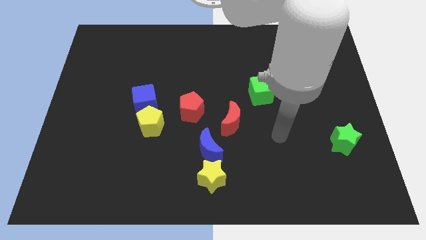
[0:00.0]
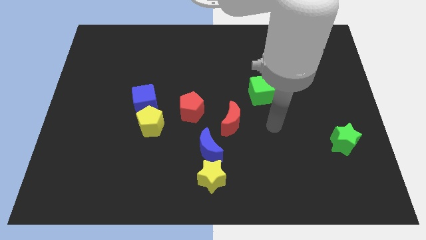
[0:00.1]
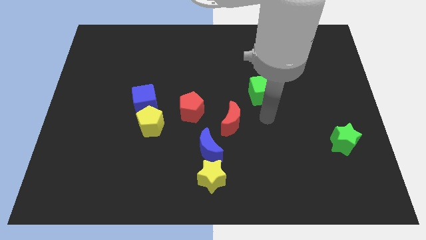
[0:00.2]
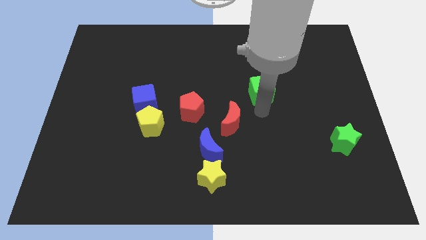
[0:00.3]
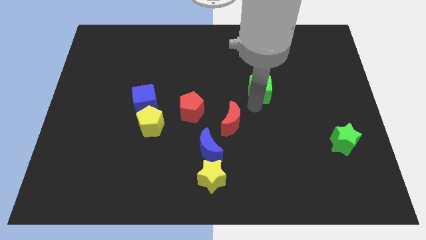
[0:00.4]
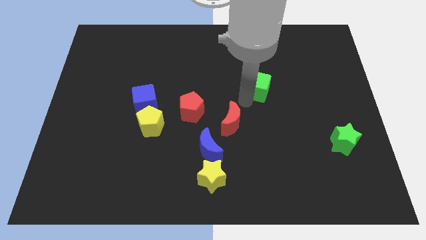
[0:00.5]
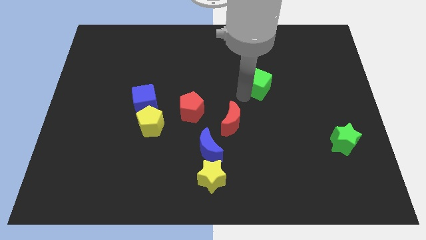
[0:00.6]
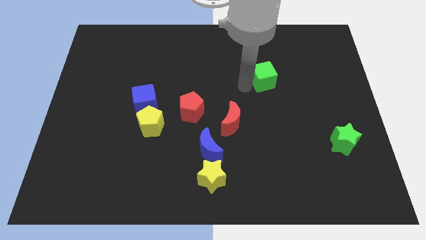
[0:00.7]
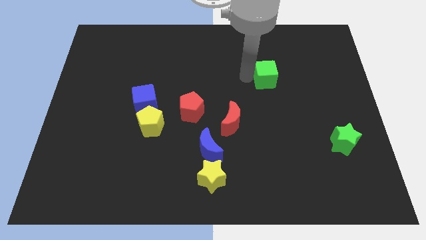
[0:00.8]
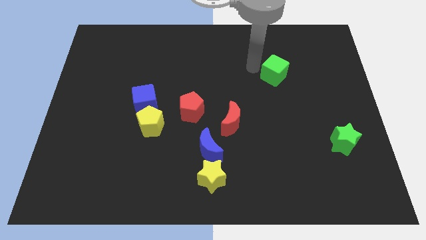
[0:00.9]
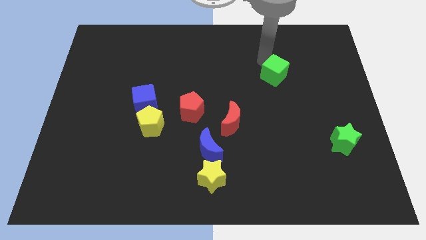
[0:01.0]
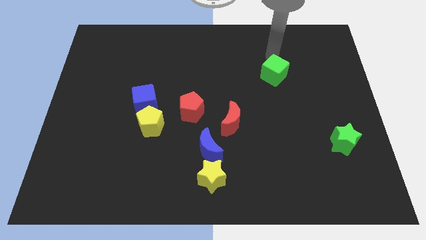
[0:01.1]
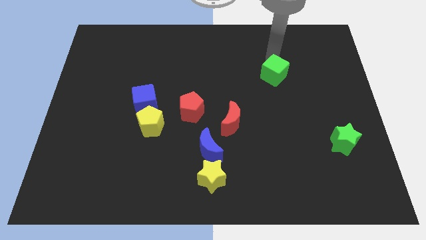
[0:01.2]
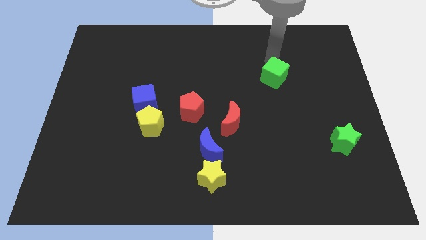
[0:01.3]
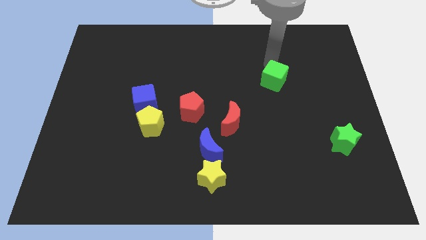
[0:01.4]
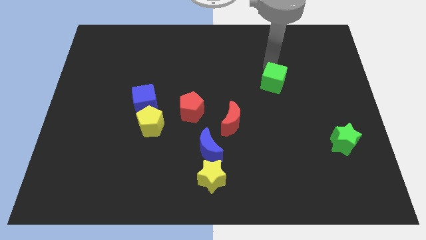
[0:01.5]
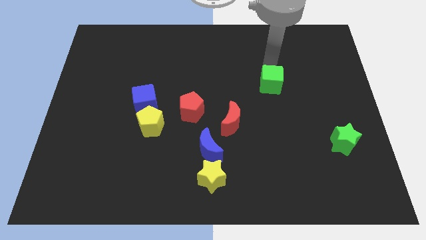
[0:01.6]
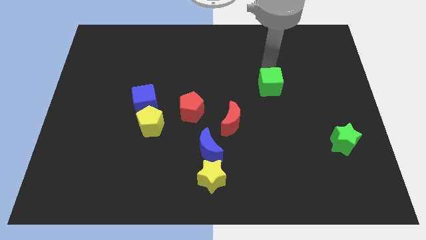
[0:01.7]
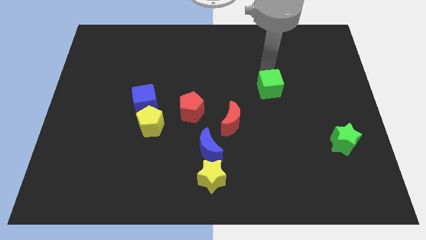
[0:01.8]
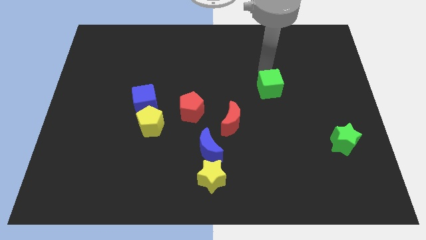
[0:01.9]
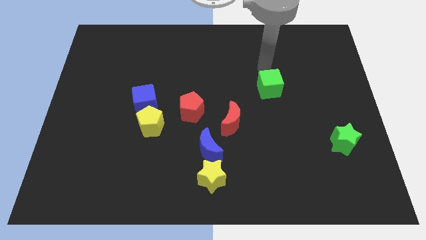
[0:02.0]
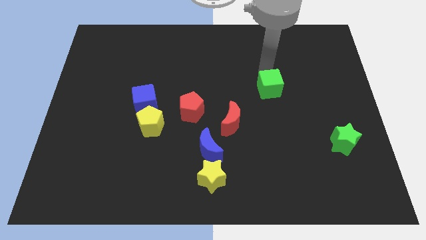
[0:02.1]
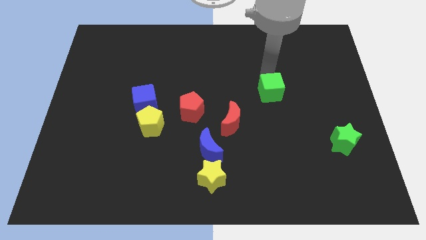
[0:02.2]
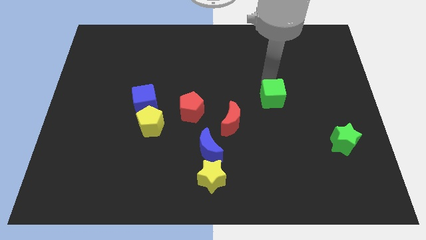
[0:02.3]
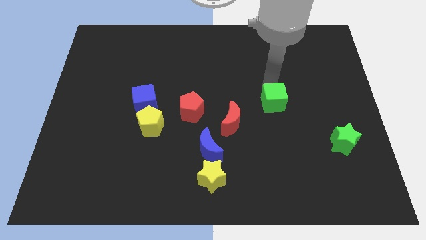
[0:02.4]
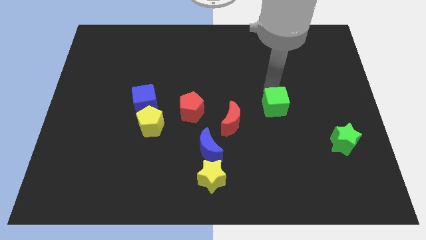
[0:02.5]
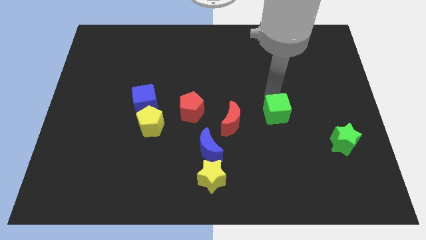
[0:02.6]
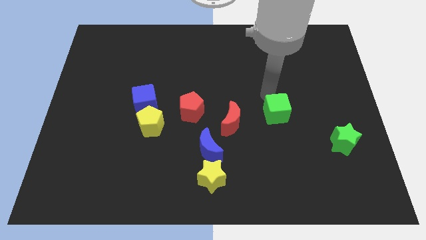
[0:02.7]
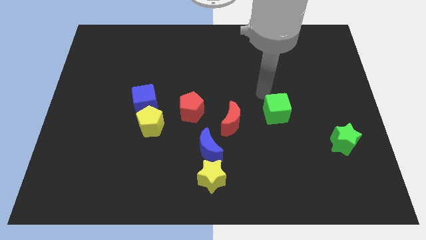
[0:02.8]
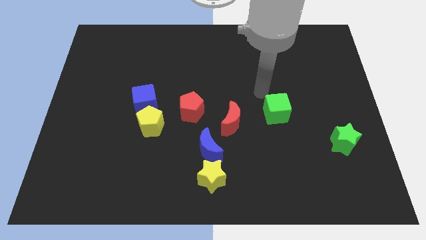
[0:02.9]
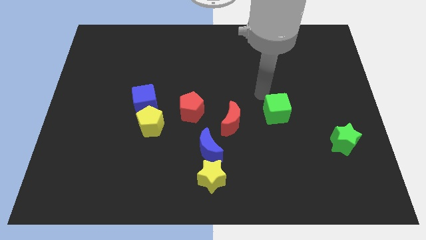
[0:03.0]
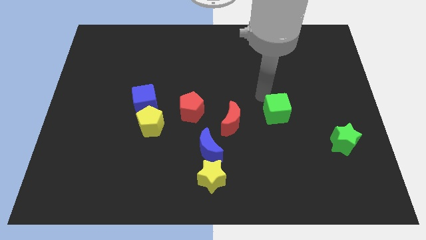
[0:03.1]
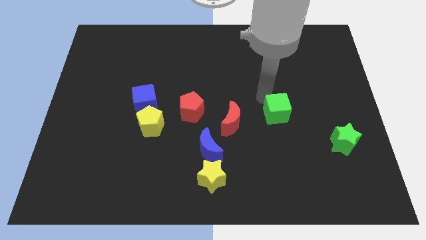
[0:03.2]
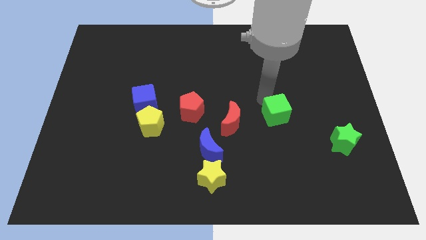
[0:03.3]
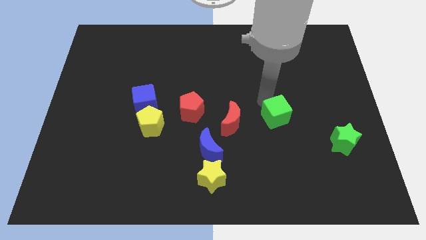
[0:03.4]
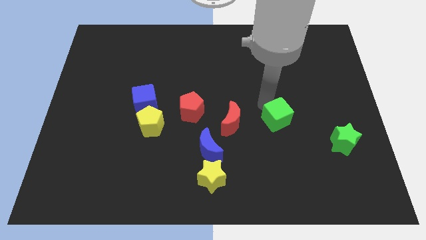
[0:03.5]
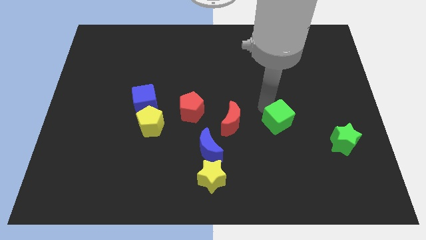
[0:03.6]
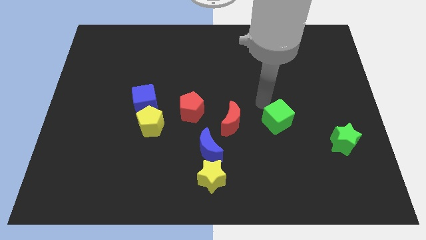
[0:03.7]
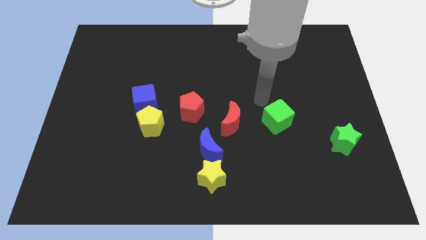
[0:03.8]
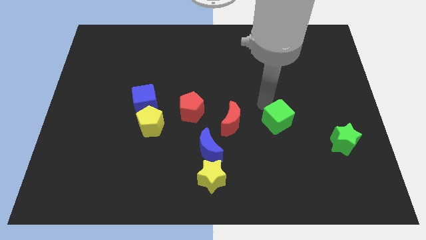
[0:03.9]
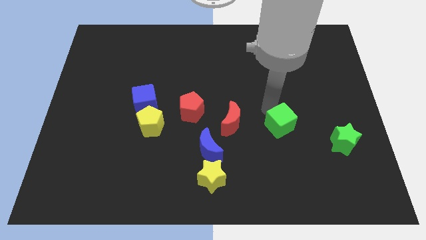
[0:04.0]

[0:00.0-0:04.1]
put the green cube to the left side of the green star

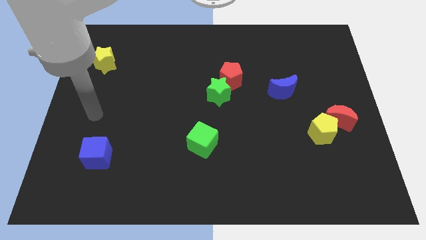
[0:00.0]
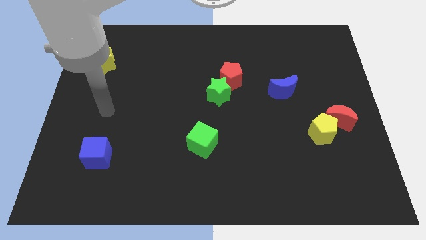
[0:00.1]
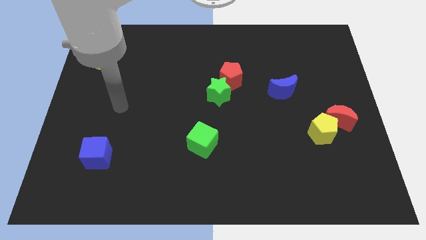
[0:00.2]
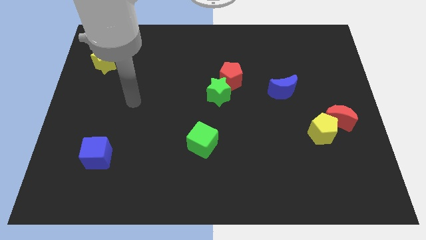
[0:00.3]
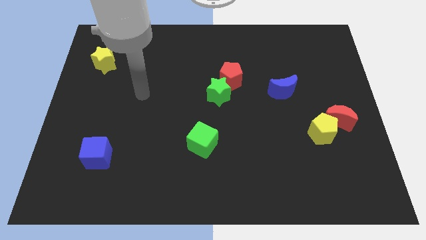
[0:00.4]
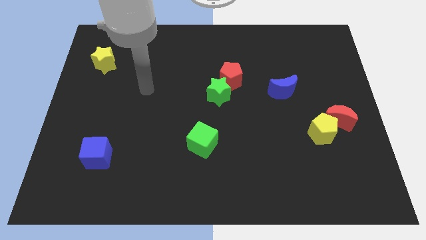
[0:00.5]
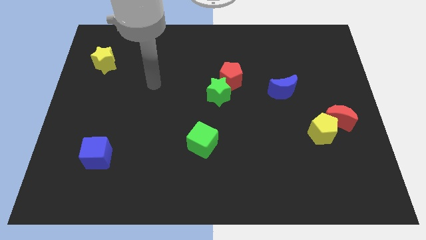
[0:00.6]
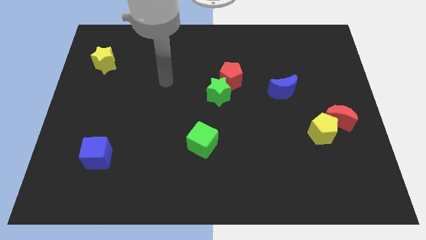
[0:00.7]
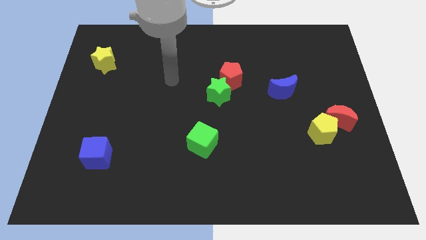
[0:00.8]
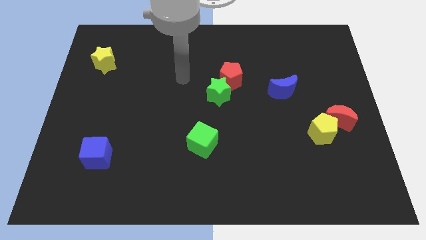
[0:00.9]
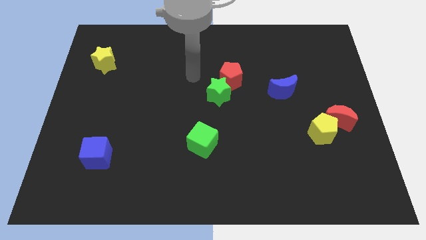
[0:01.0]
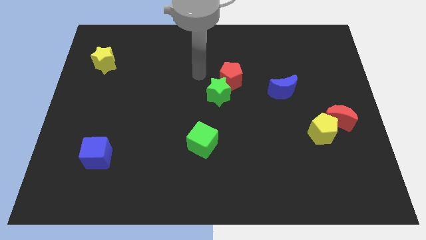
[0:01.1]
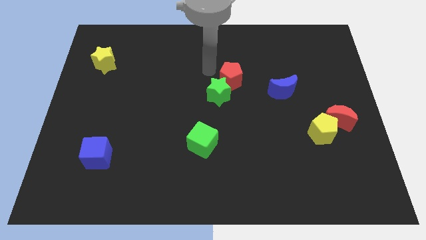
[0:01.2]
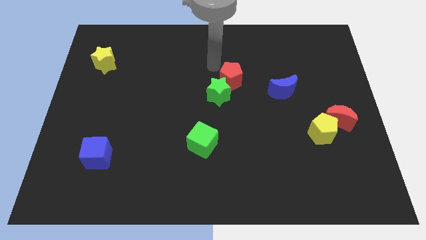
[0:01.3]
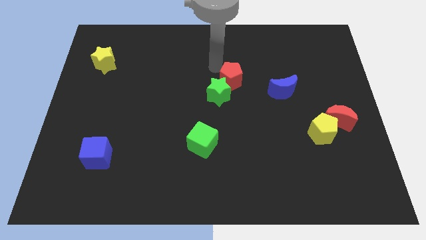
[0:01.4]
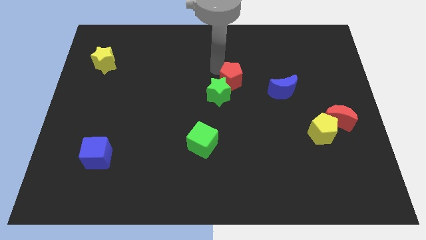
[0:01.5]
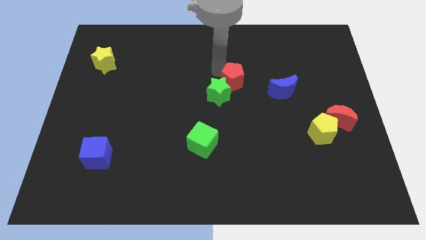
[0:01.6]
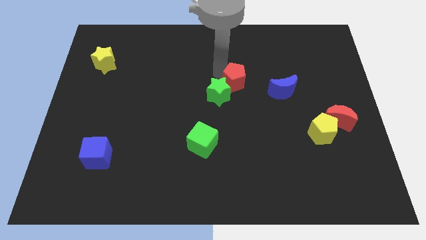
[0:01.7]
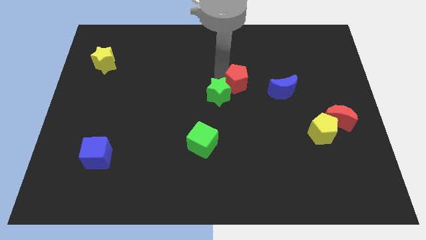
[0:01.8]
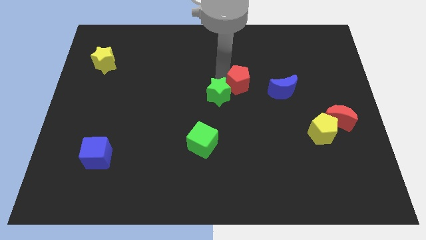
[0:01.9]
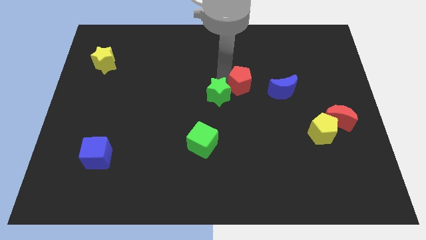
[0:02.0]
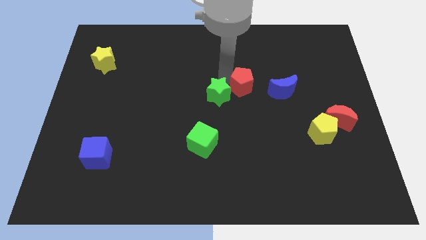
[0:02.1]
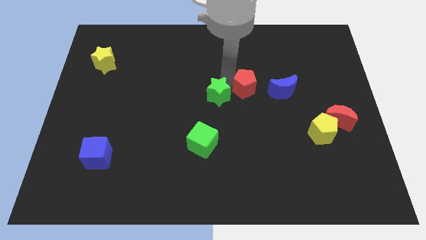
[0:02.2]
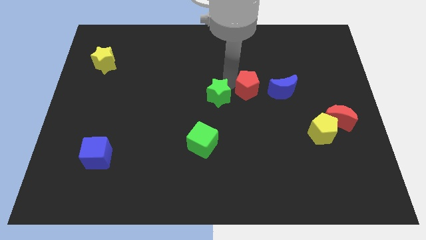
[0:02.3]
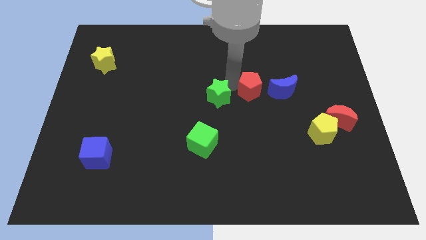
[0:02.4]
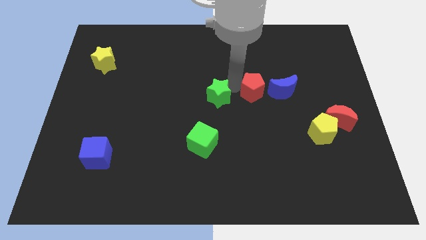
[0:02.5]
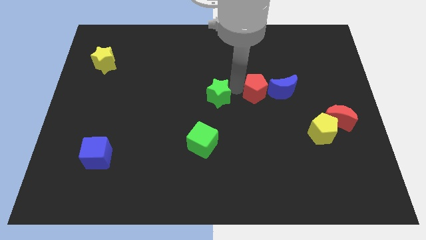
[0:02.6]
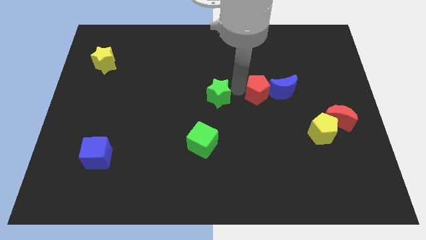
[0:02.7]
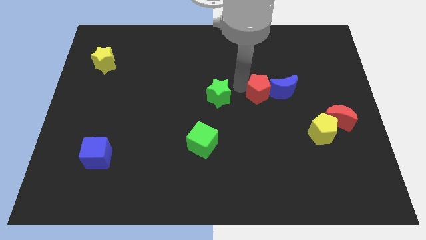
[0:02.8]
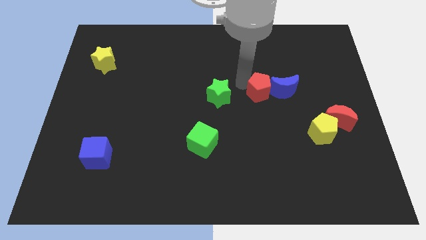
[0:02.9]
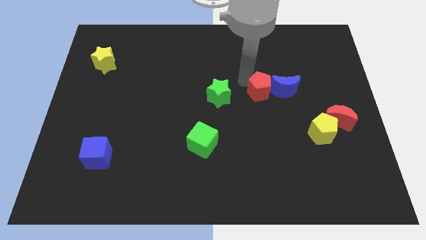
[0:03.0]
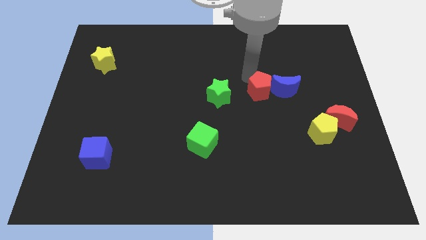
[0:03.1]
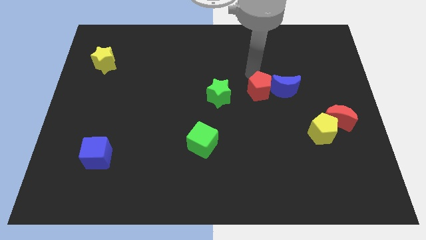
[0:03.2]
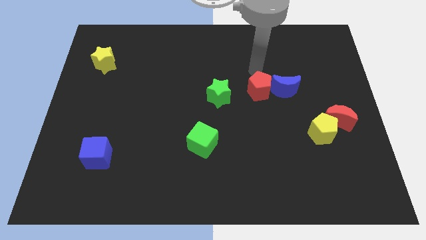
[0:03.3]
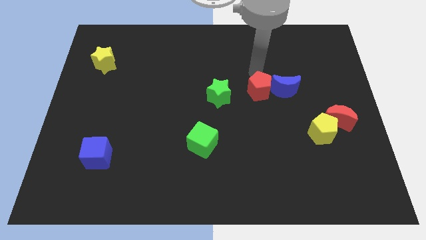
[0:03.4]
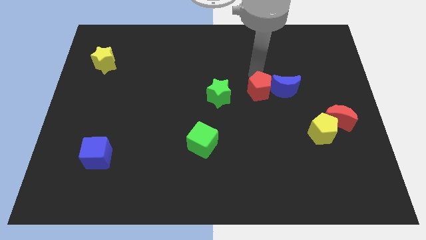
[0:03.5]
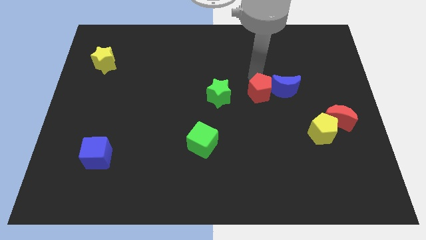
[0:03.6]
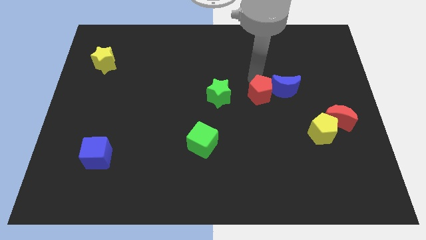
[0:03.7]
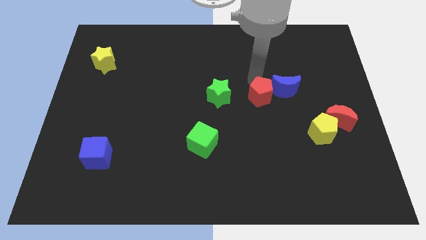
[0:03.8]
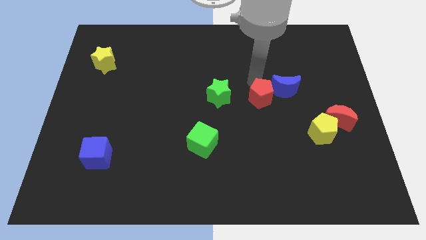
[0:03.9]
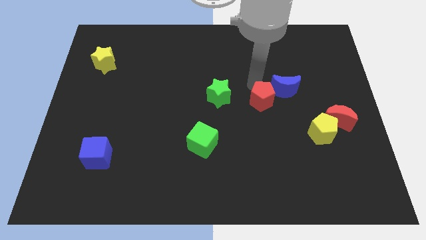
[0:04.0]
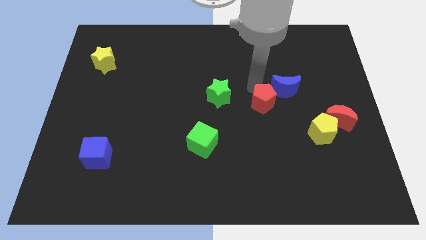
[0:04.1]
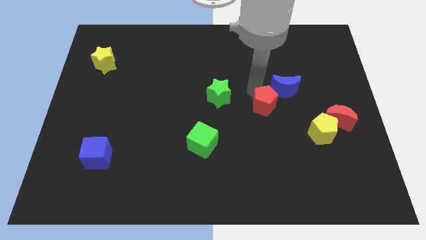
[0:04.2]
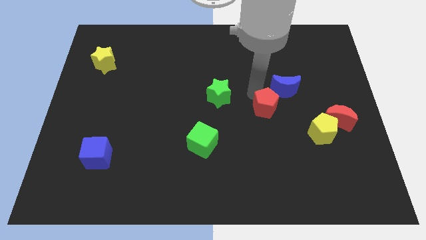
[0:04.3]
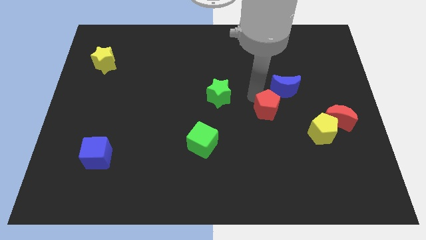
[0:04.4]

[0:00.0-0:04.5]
slide the red pentagon to the bottom side of the blue moon
